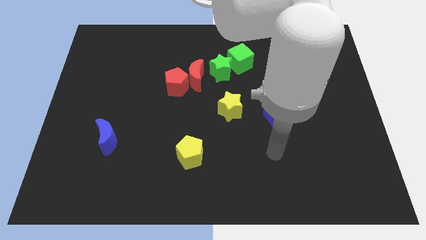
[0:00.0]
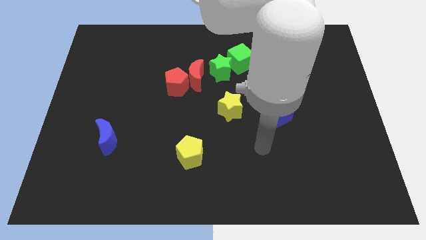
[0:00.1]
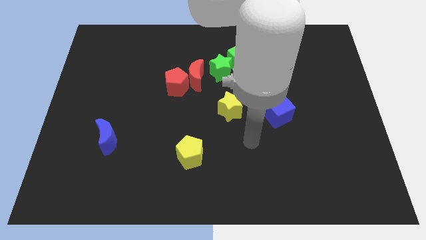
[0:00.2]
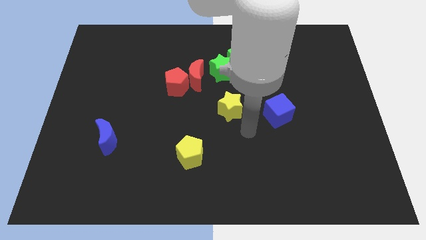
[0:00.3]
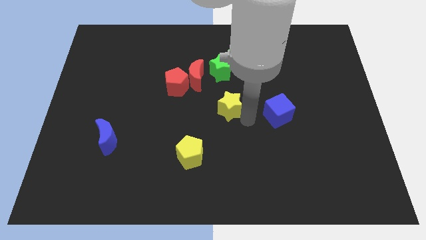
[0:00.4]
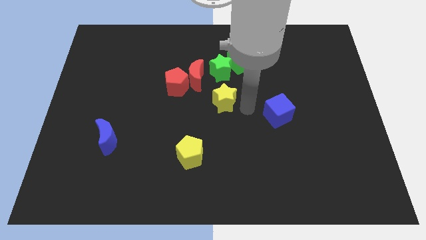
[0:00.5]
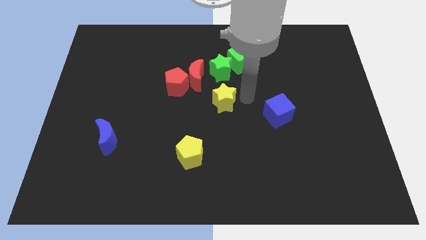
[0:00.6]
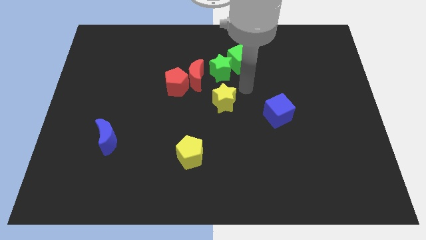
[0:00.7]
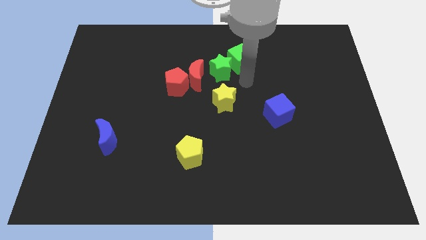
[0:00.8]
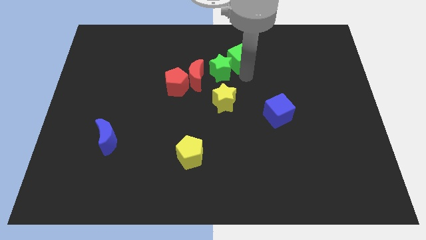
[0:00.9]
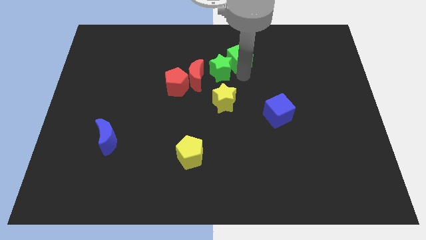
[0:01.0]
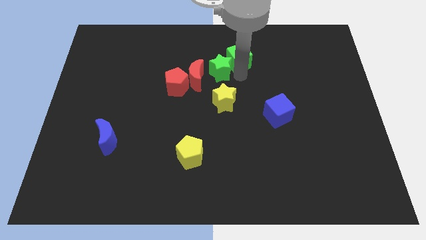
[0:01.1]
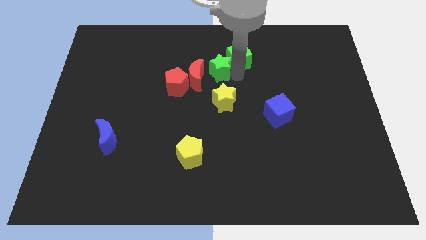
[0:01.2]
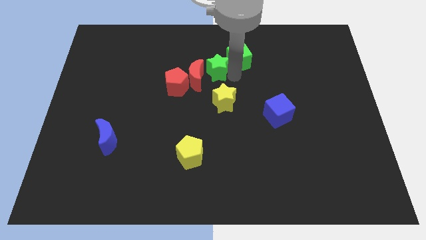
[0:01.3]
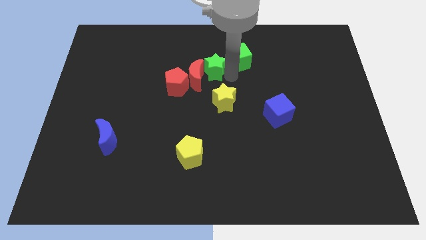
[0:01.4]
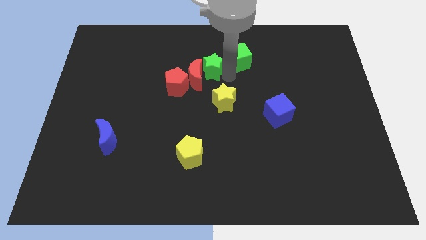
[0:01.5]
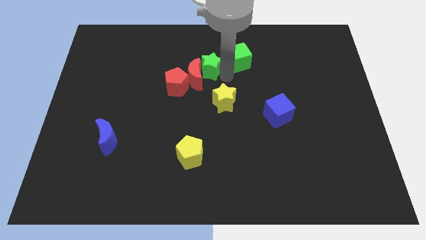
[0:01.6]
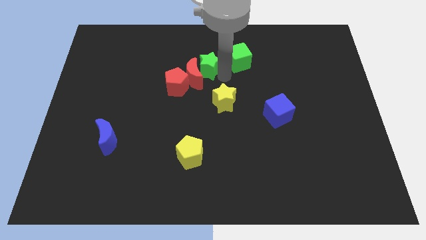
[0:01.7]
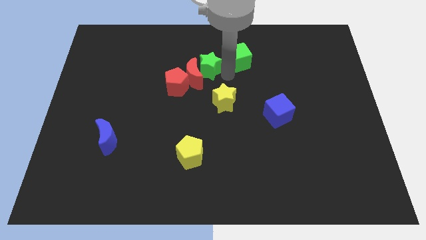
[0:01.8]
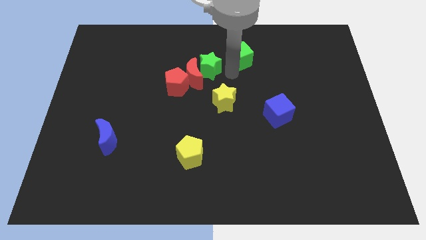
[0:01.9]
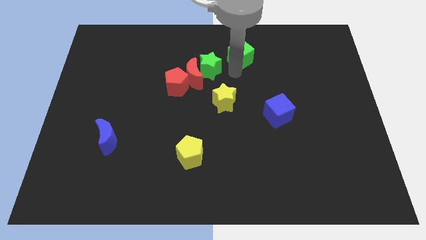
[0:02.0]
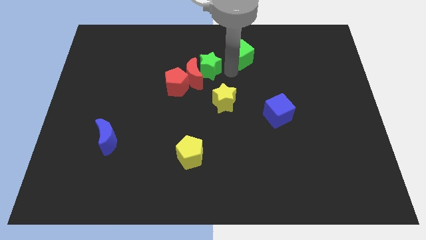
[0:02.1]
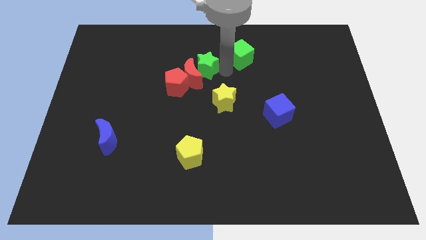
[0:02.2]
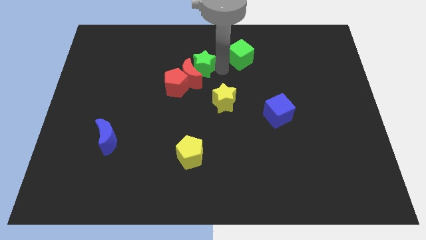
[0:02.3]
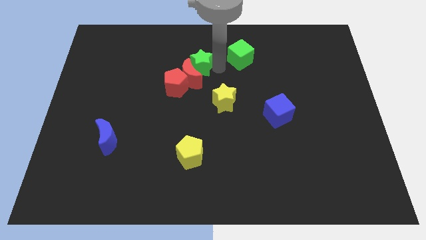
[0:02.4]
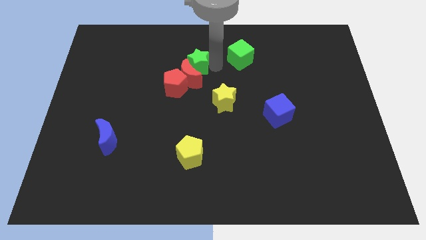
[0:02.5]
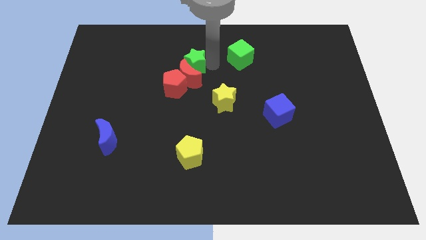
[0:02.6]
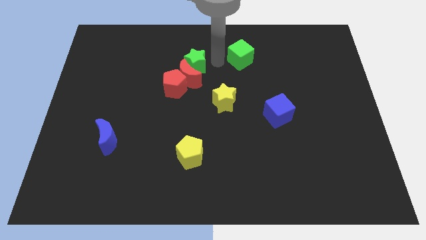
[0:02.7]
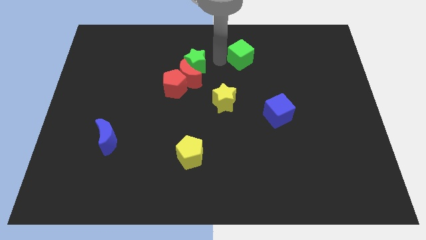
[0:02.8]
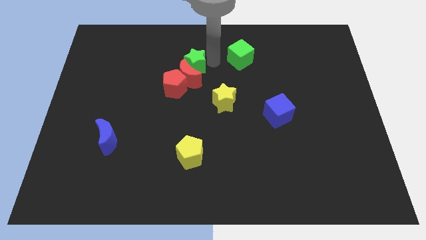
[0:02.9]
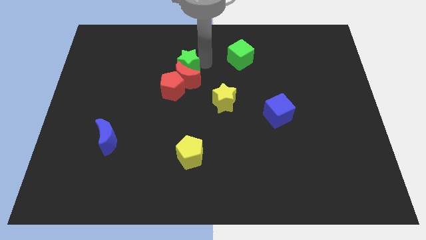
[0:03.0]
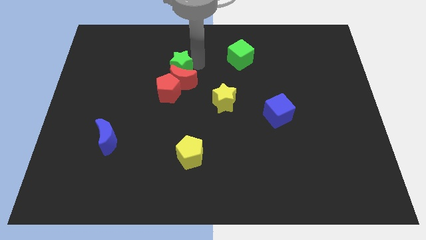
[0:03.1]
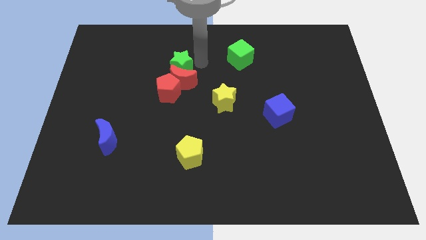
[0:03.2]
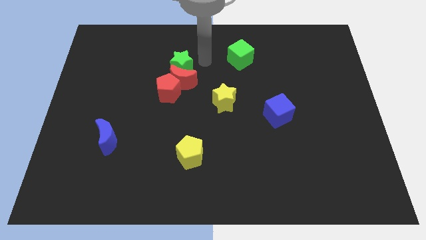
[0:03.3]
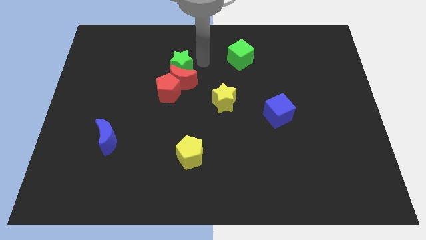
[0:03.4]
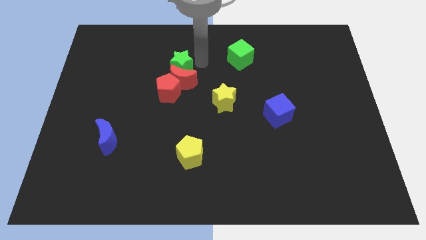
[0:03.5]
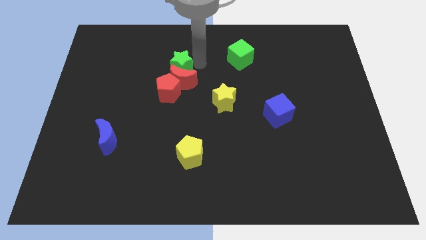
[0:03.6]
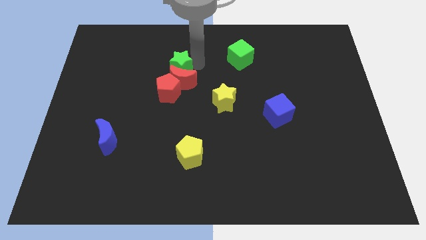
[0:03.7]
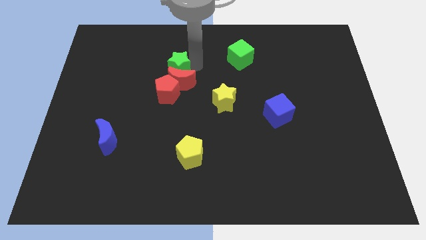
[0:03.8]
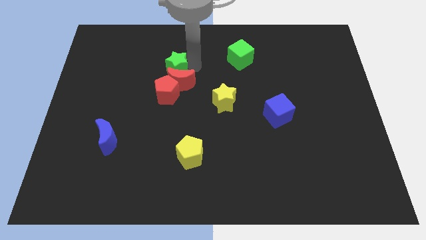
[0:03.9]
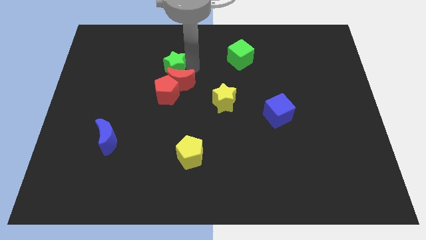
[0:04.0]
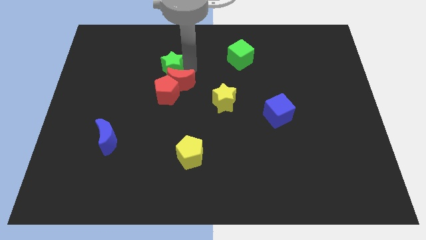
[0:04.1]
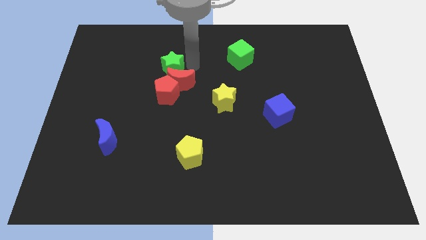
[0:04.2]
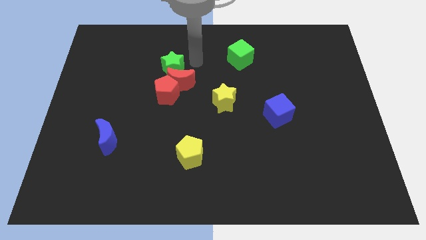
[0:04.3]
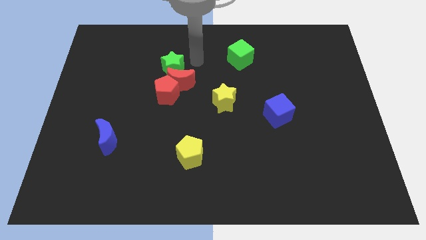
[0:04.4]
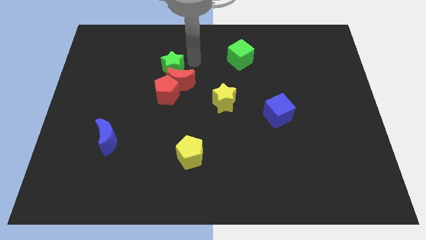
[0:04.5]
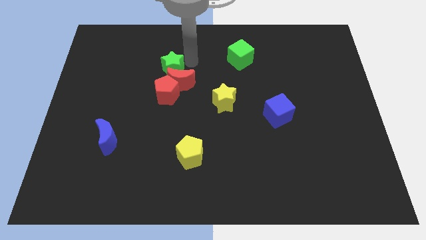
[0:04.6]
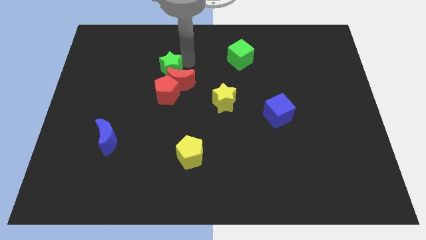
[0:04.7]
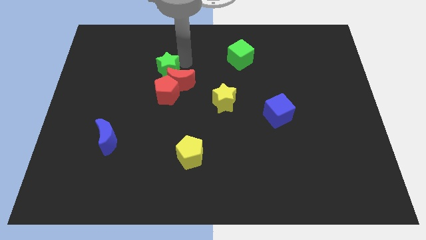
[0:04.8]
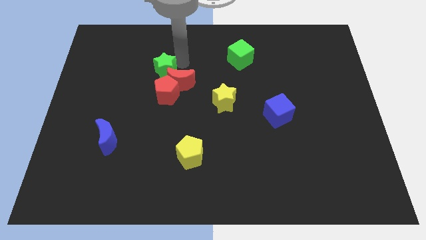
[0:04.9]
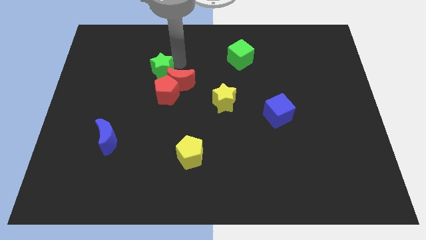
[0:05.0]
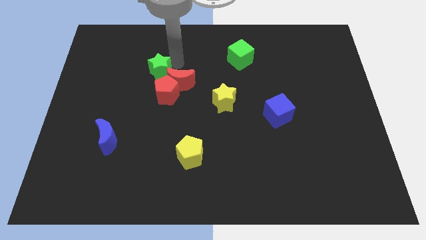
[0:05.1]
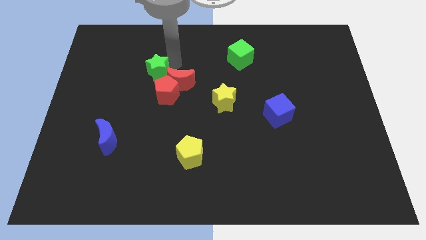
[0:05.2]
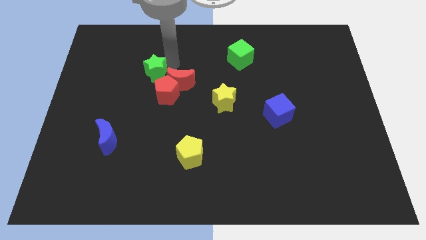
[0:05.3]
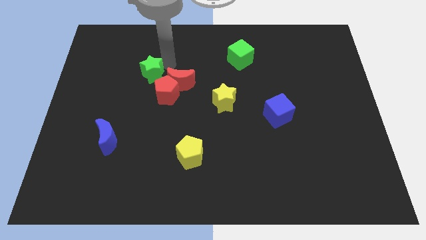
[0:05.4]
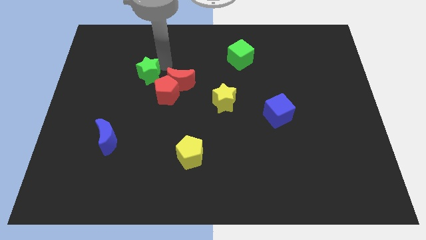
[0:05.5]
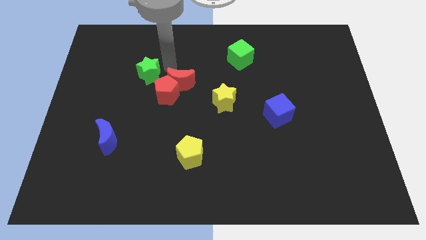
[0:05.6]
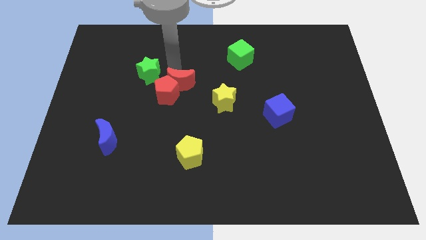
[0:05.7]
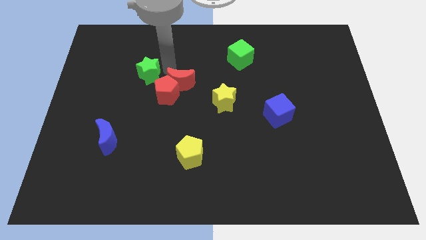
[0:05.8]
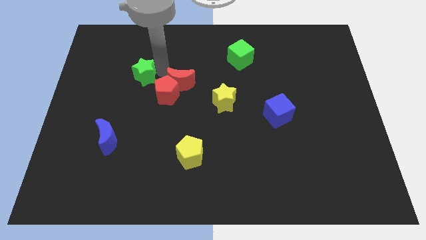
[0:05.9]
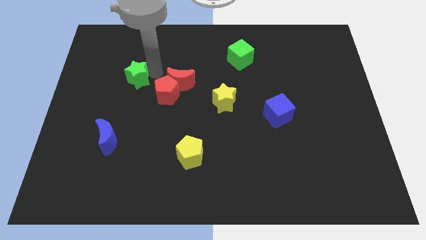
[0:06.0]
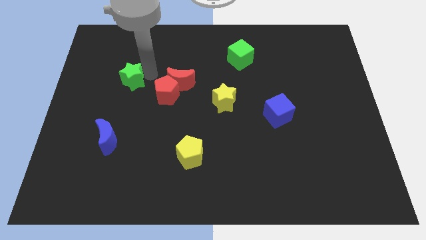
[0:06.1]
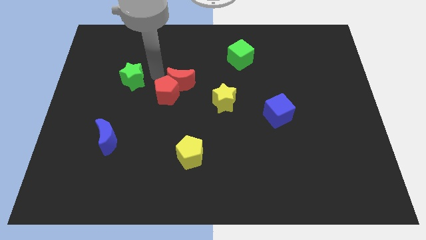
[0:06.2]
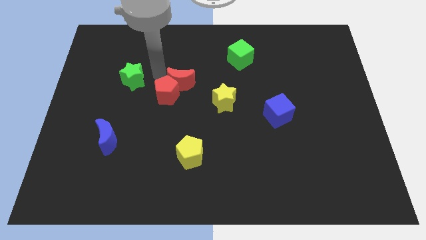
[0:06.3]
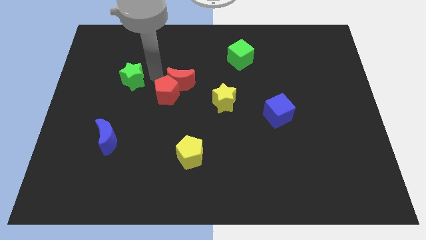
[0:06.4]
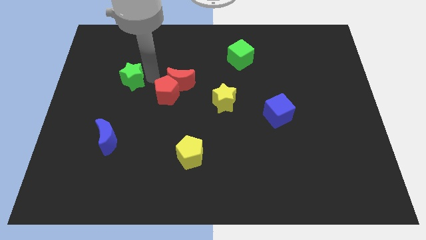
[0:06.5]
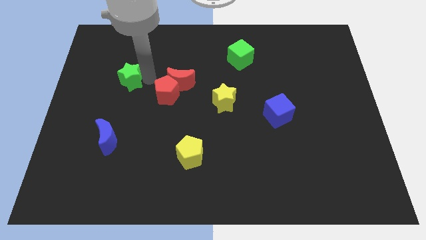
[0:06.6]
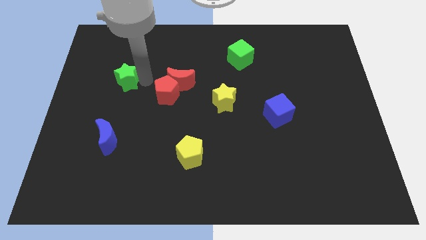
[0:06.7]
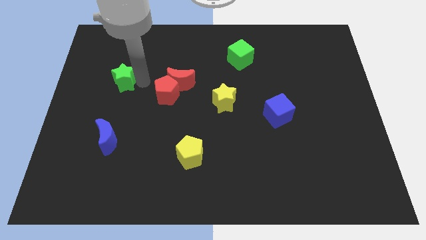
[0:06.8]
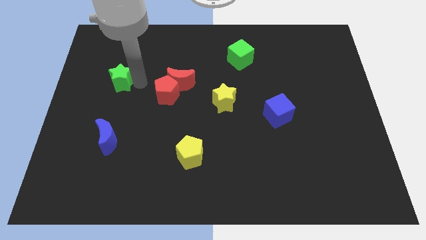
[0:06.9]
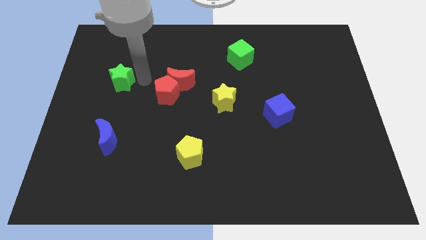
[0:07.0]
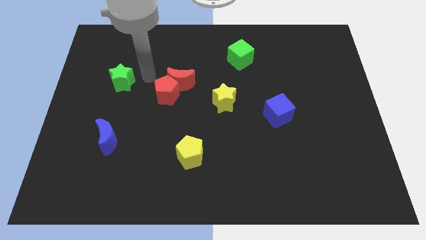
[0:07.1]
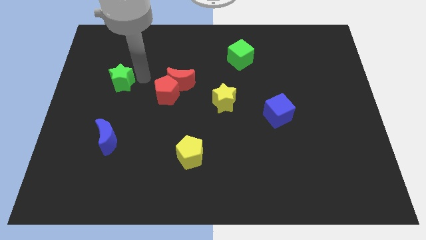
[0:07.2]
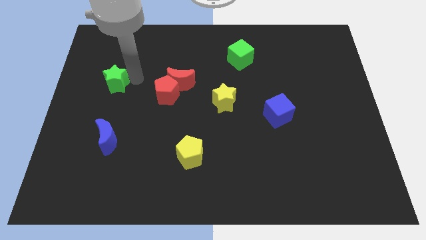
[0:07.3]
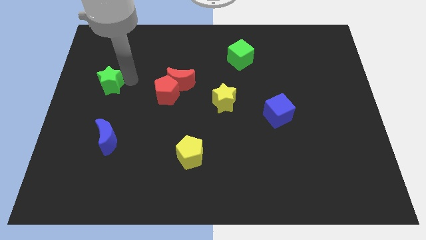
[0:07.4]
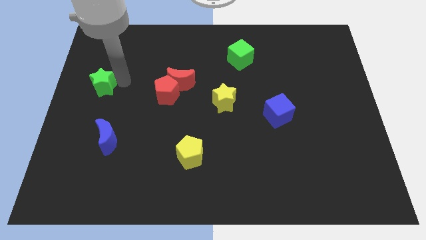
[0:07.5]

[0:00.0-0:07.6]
slide the green star to the left side of the board
